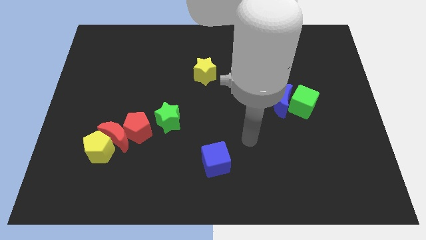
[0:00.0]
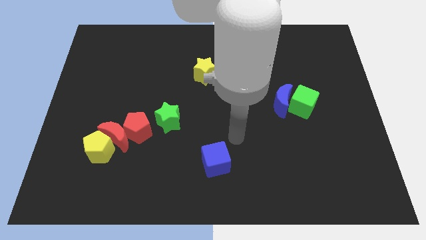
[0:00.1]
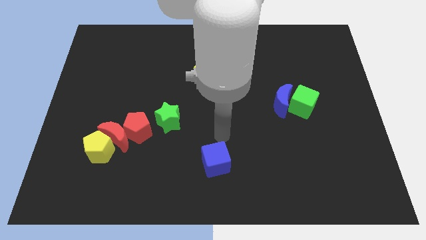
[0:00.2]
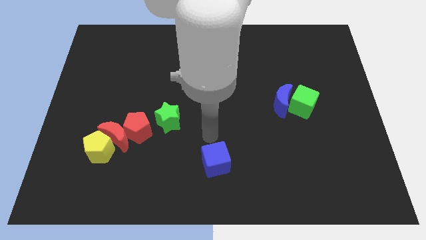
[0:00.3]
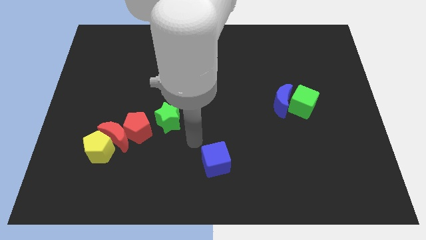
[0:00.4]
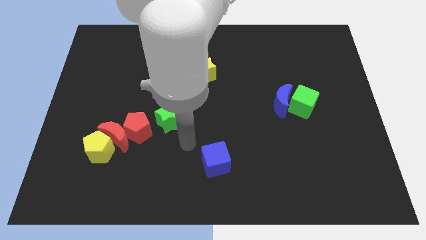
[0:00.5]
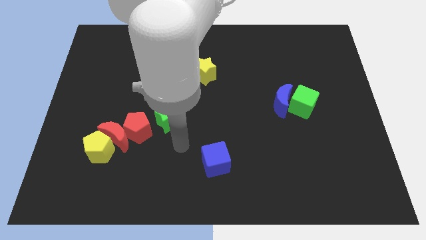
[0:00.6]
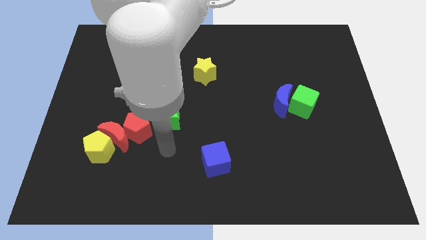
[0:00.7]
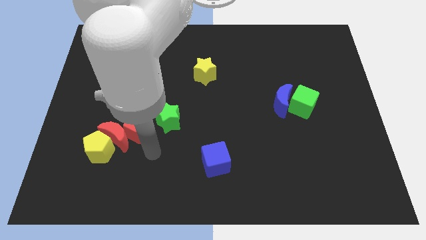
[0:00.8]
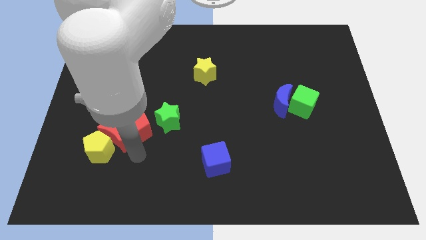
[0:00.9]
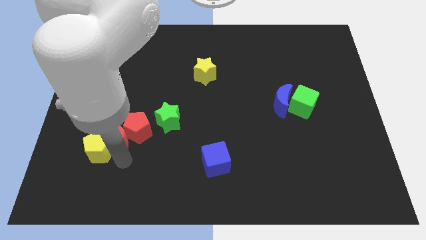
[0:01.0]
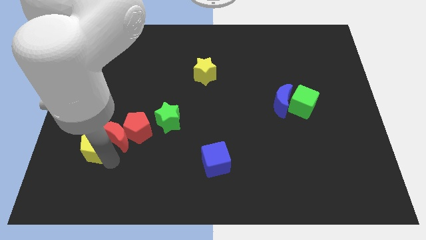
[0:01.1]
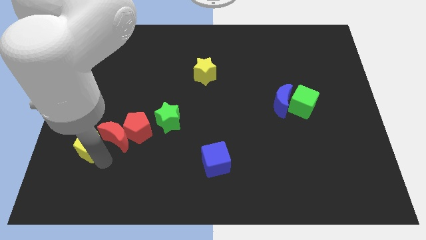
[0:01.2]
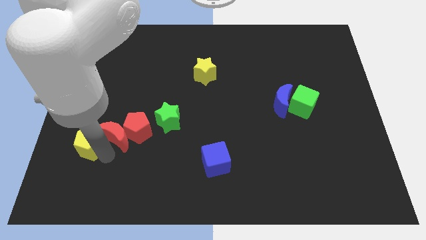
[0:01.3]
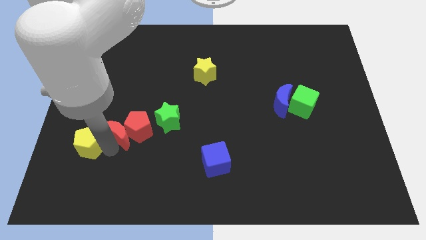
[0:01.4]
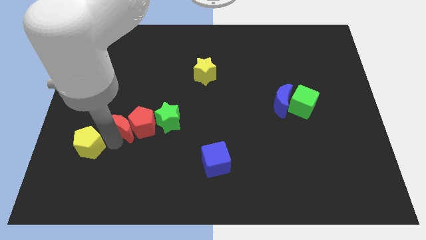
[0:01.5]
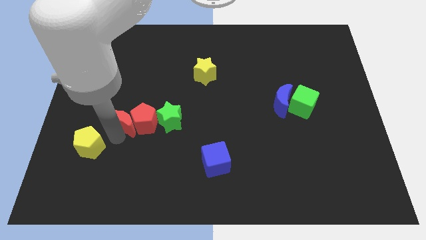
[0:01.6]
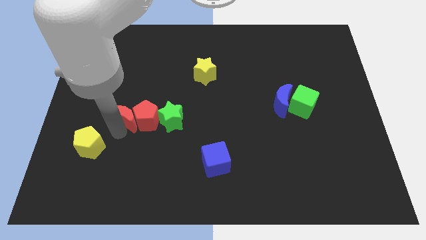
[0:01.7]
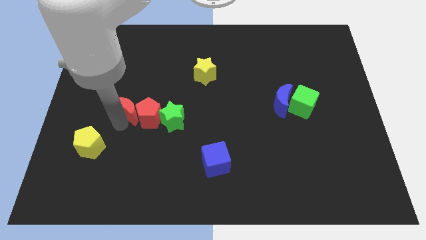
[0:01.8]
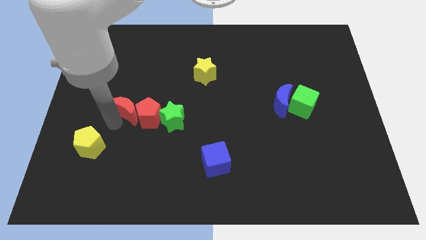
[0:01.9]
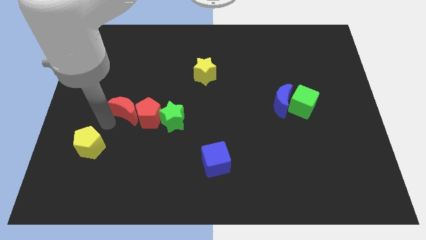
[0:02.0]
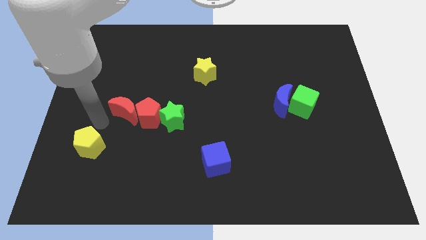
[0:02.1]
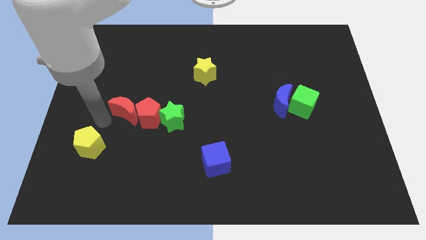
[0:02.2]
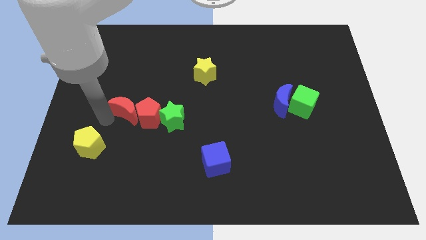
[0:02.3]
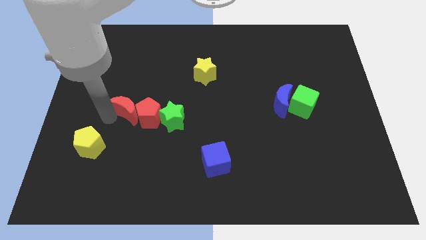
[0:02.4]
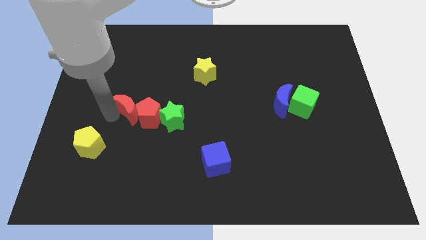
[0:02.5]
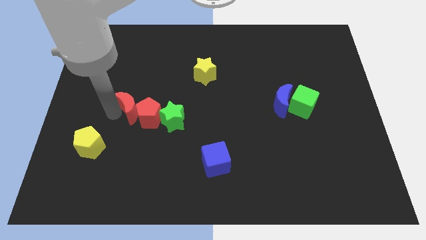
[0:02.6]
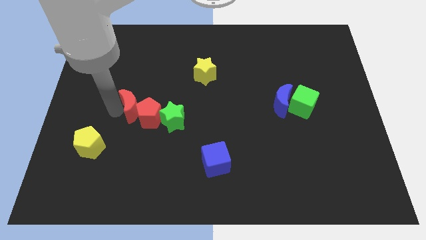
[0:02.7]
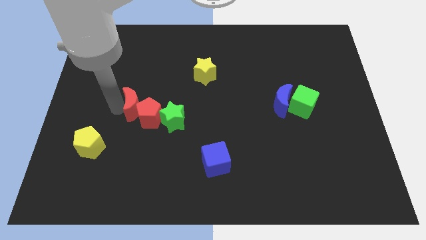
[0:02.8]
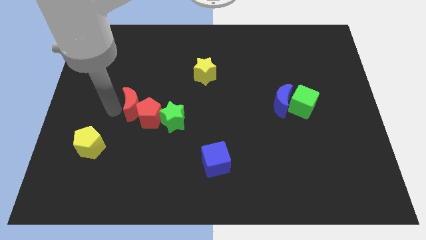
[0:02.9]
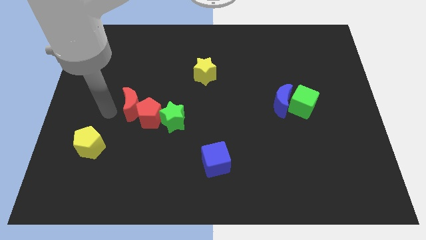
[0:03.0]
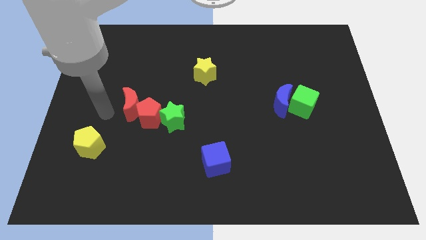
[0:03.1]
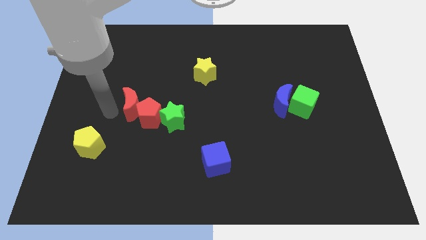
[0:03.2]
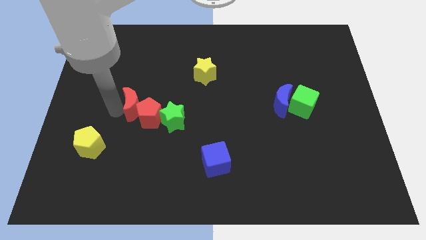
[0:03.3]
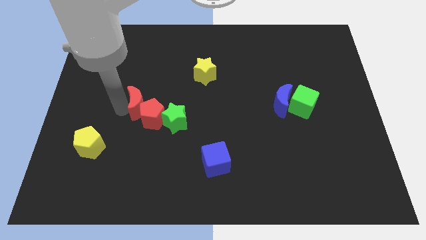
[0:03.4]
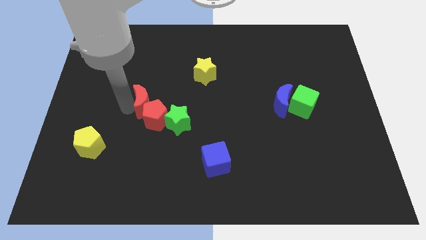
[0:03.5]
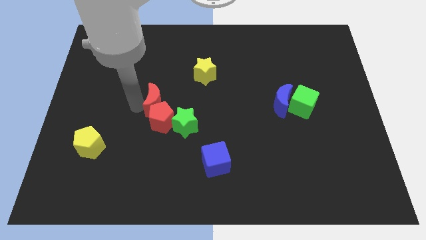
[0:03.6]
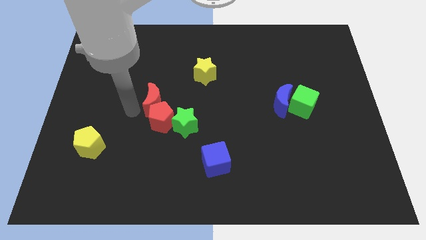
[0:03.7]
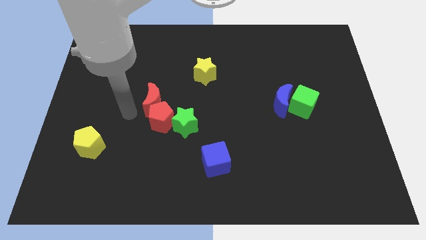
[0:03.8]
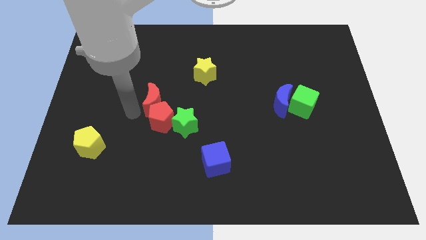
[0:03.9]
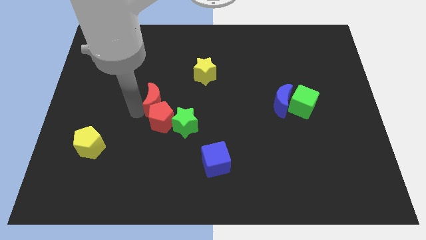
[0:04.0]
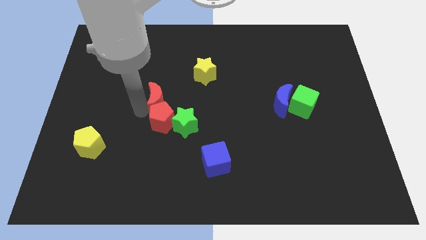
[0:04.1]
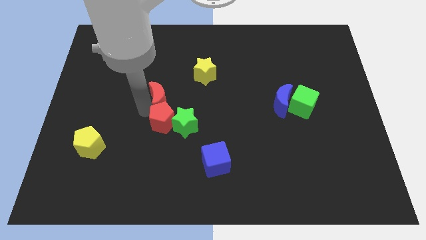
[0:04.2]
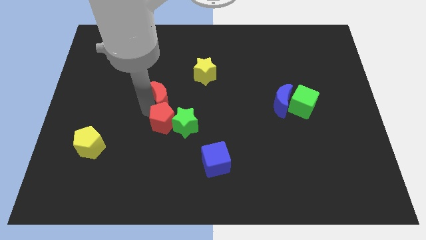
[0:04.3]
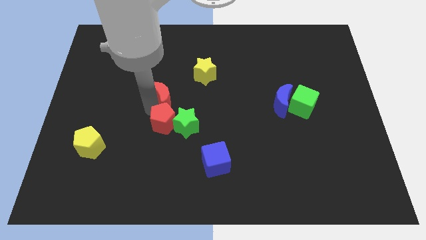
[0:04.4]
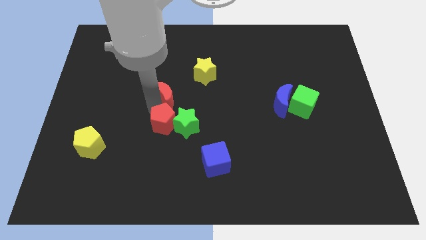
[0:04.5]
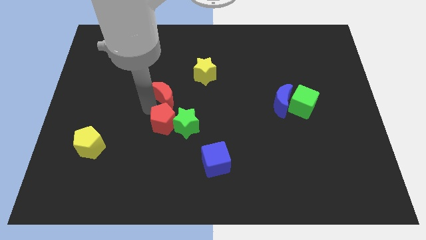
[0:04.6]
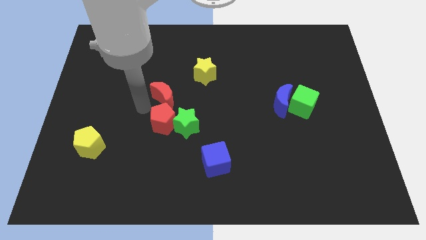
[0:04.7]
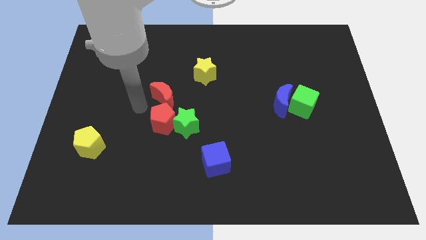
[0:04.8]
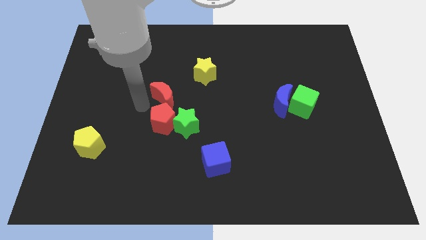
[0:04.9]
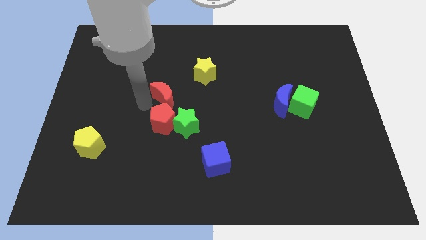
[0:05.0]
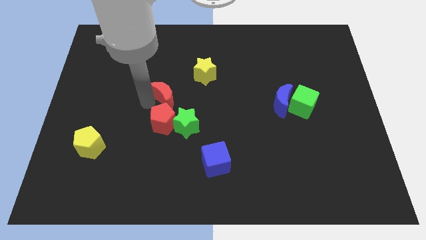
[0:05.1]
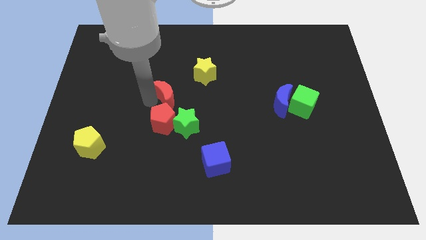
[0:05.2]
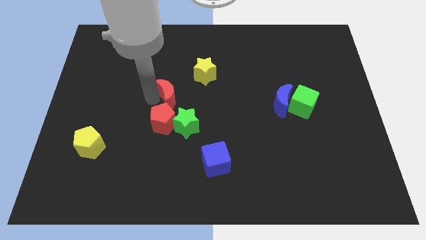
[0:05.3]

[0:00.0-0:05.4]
move the red moon to the top of the green star
